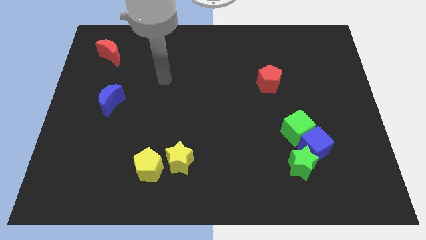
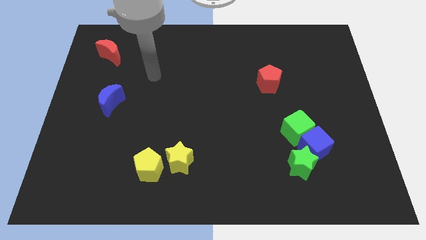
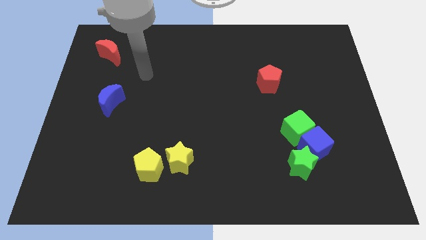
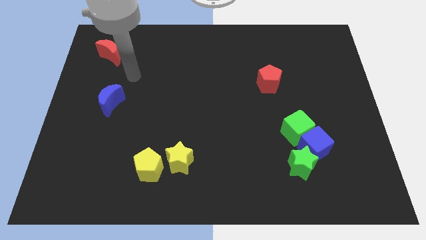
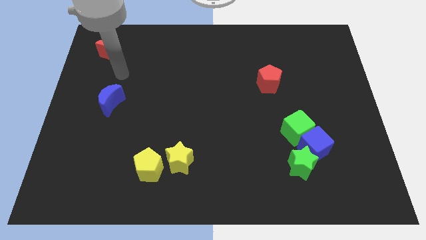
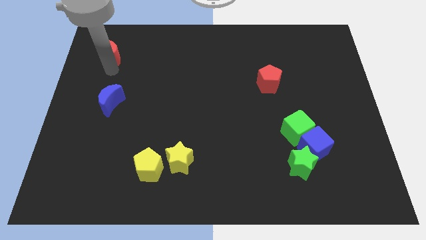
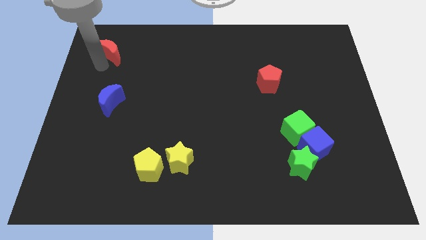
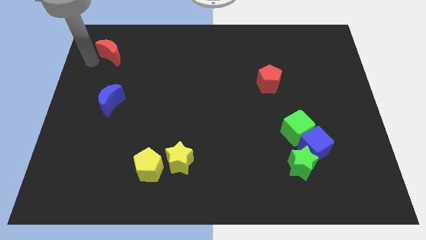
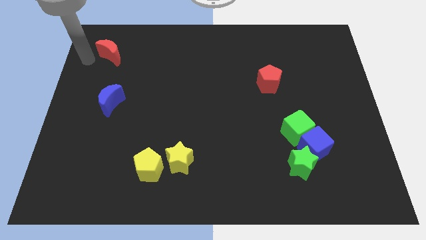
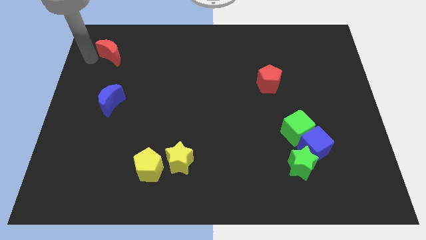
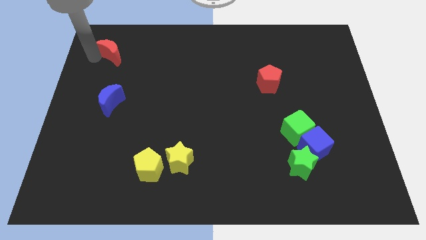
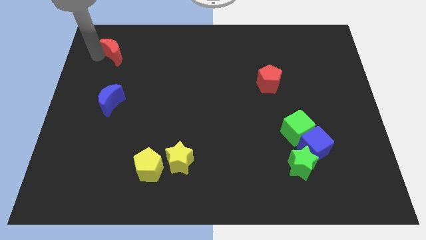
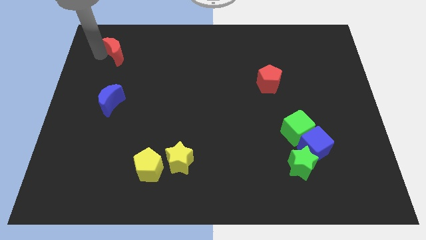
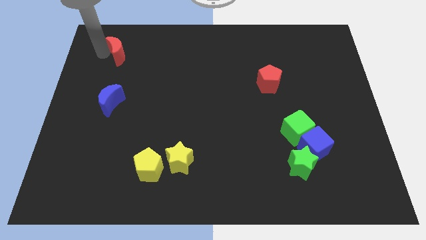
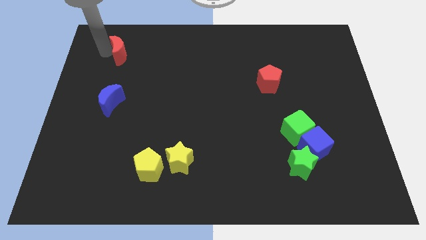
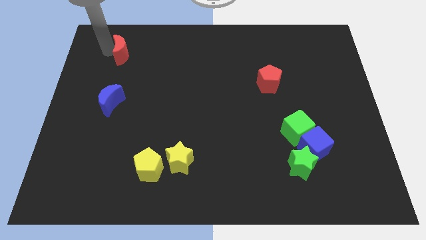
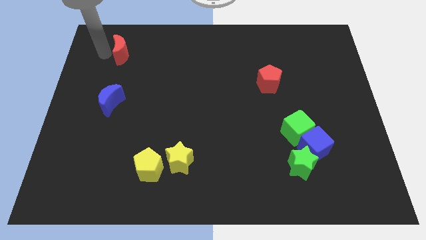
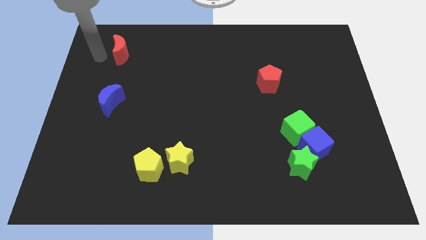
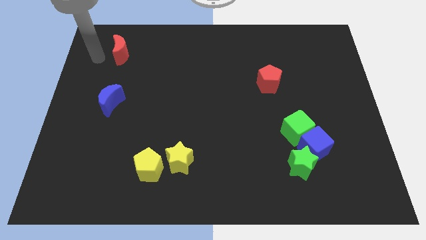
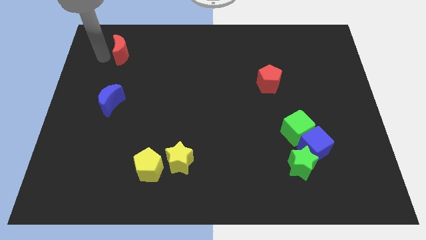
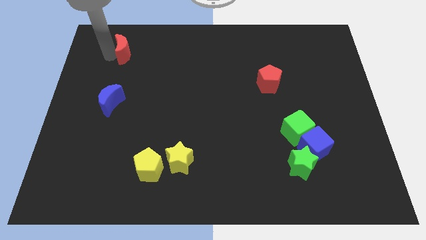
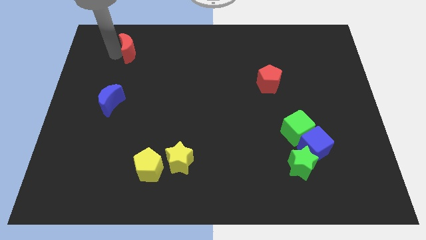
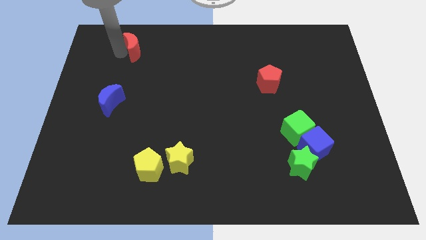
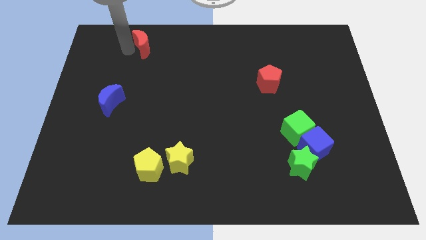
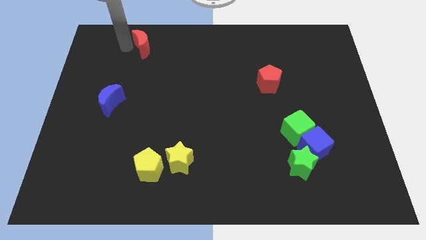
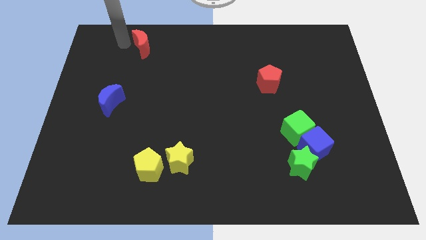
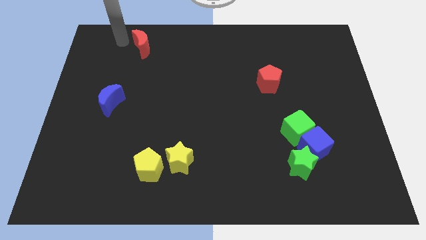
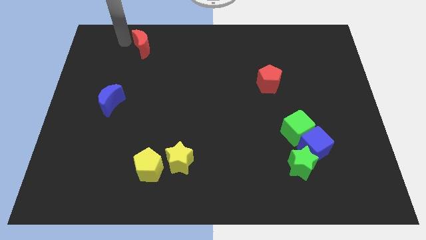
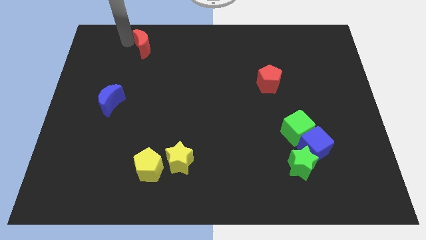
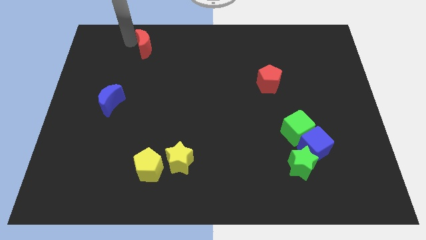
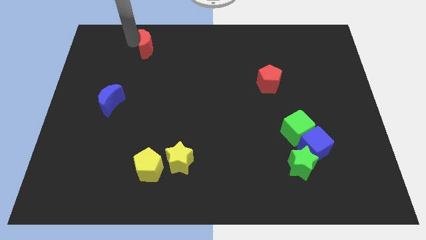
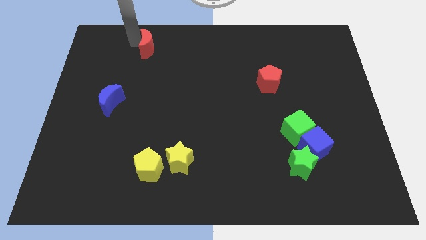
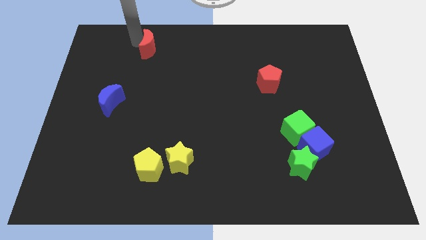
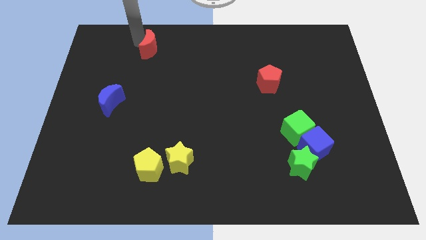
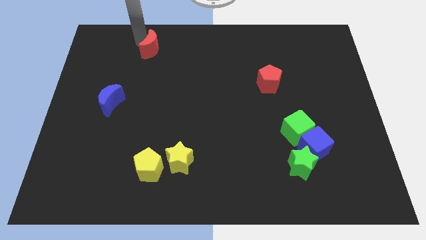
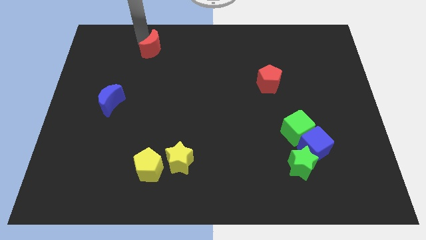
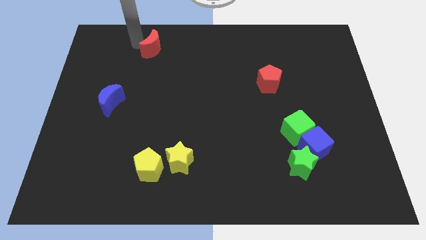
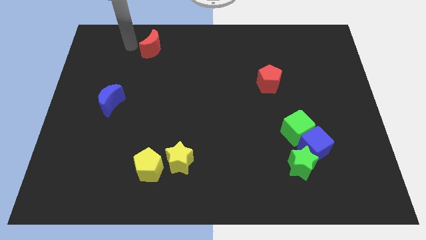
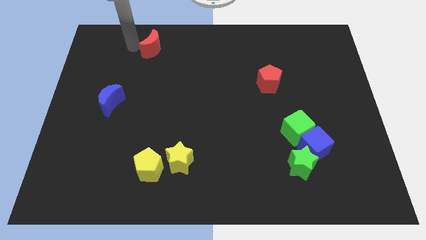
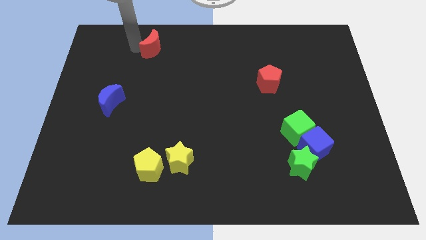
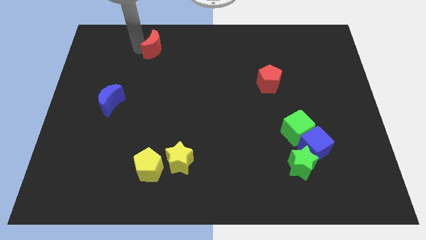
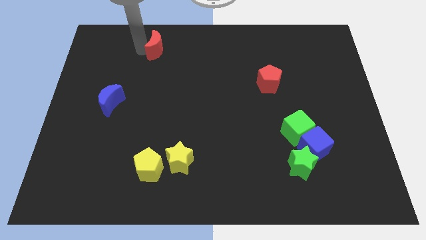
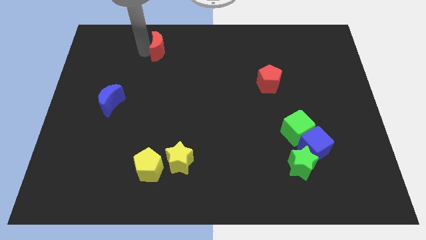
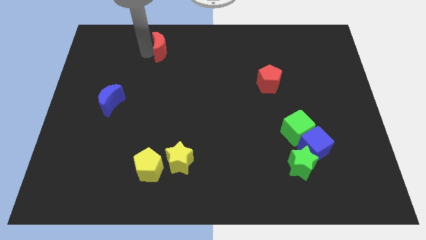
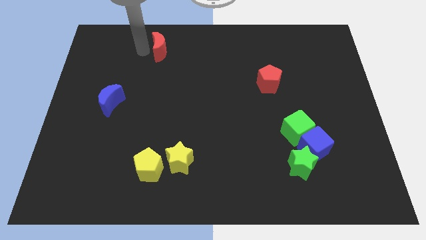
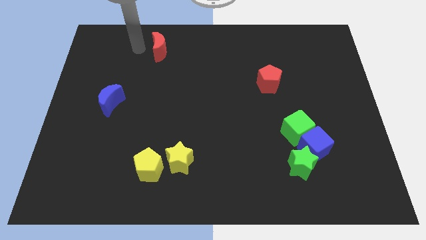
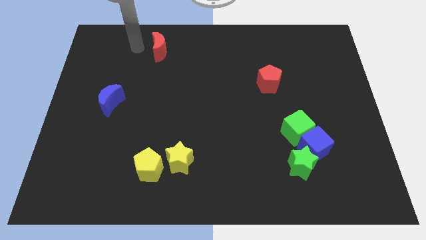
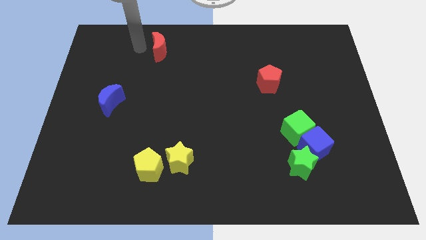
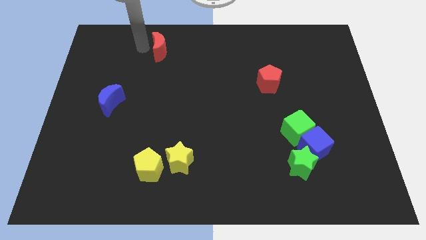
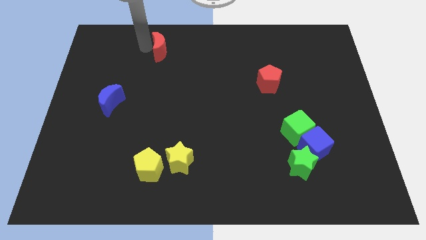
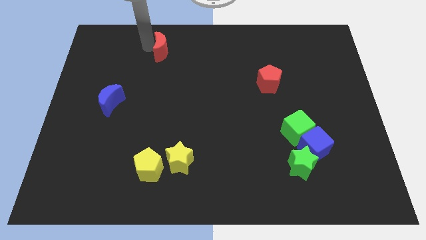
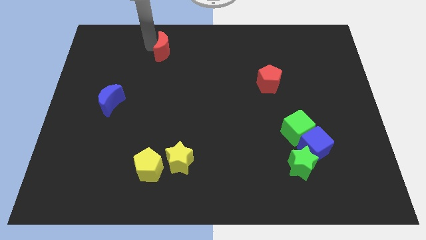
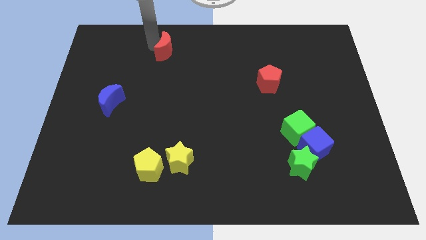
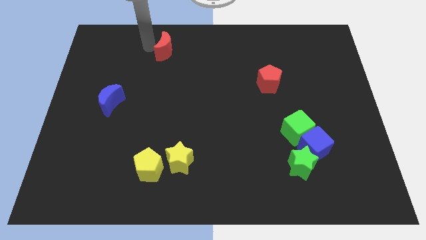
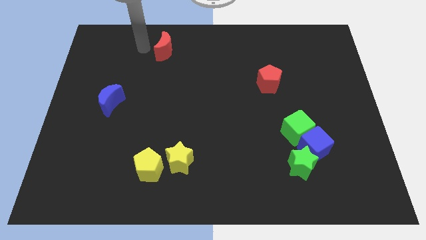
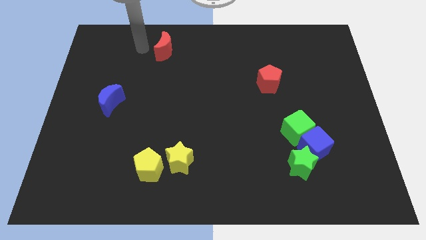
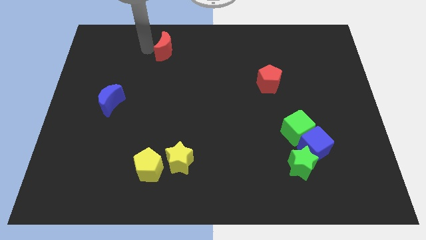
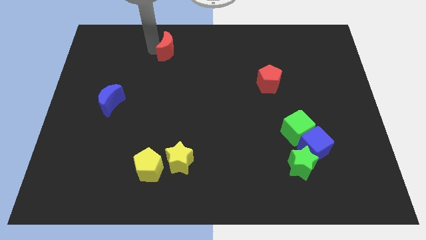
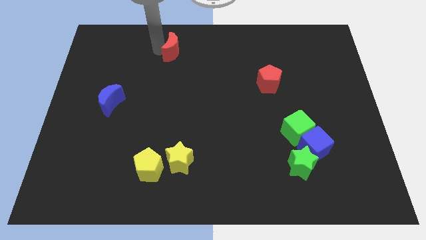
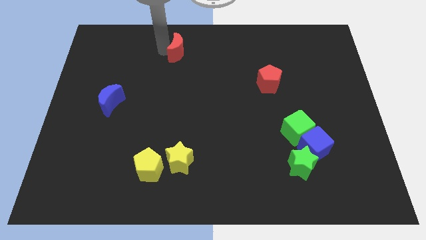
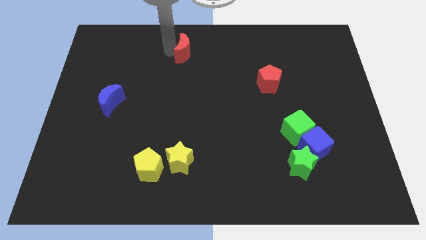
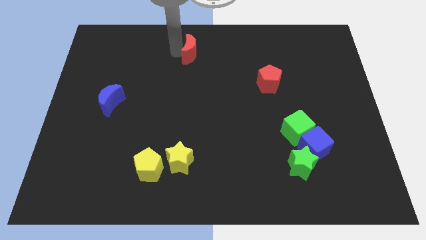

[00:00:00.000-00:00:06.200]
push the red moon right

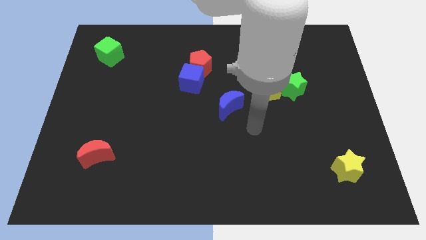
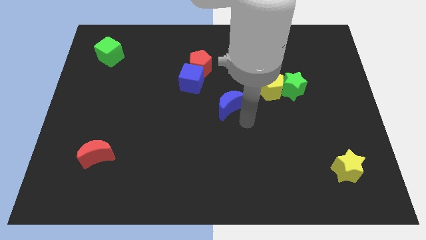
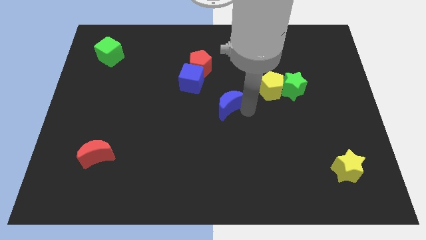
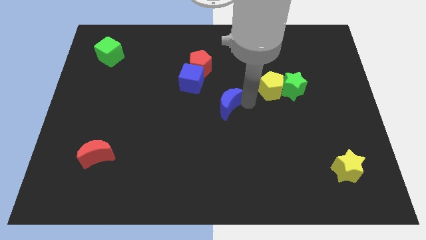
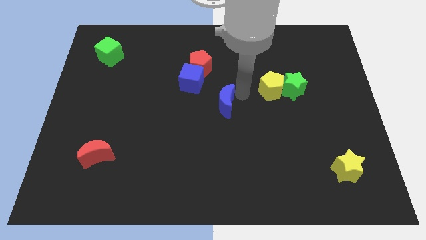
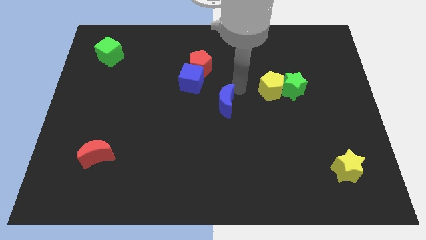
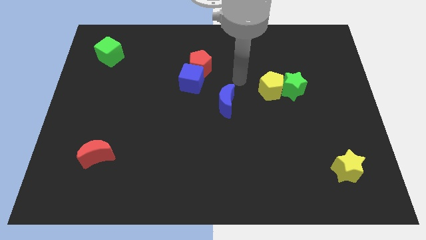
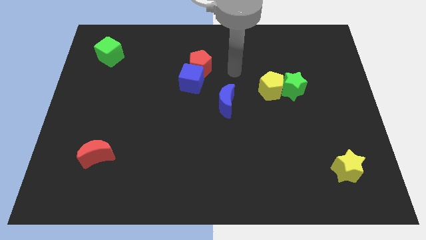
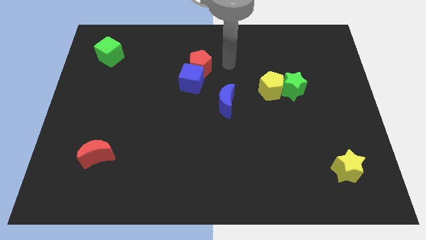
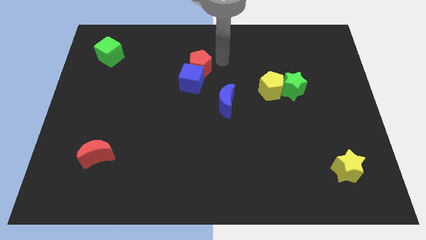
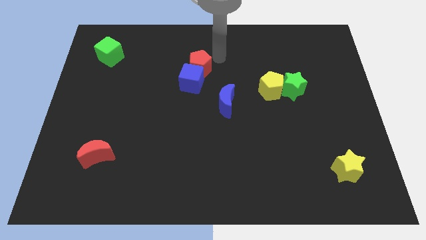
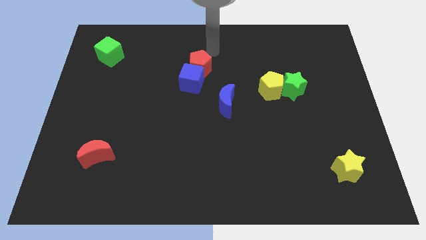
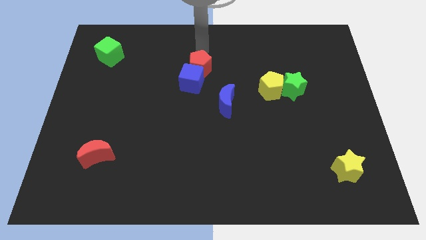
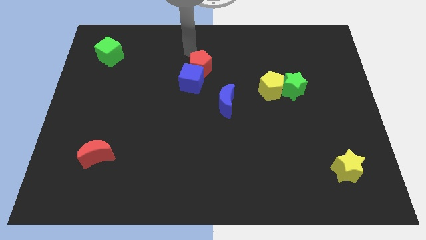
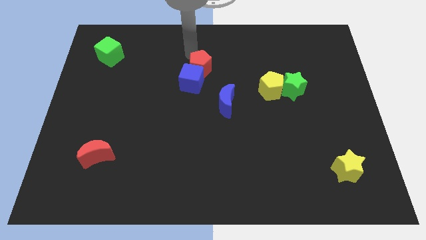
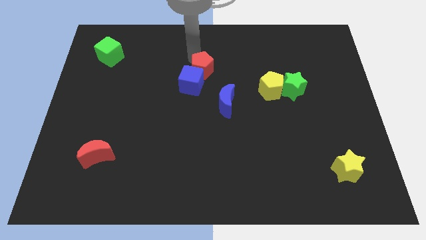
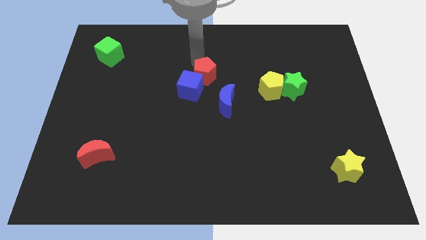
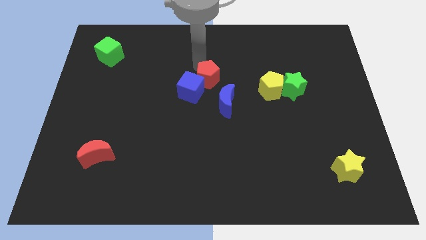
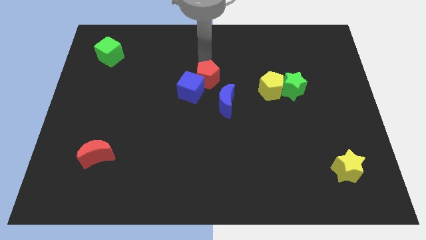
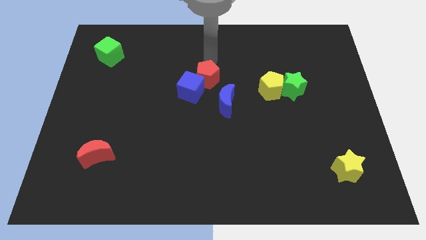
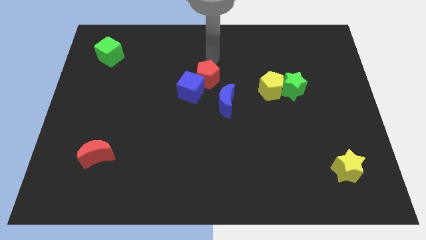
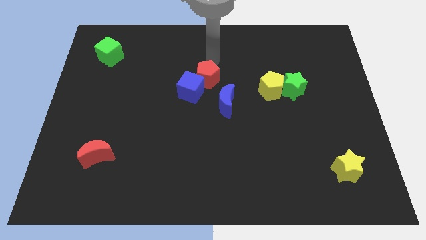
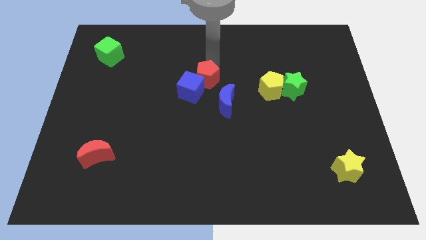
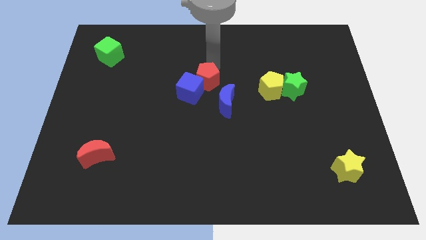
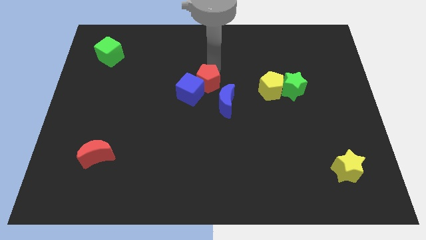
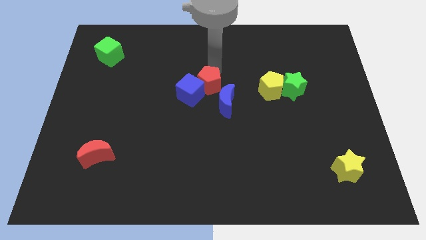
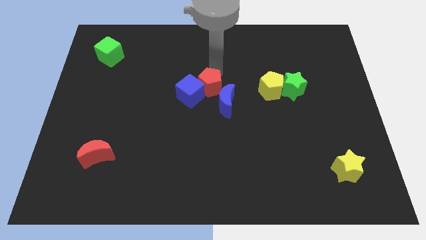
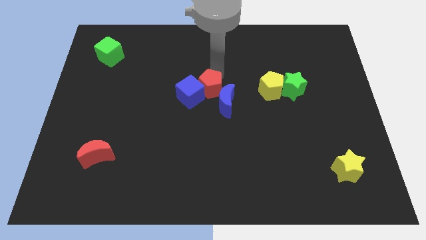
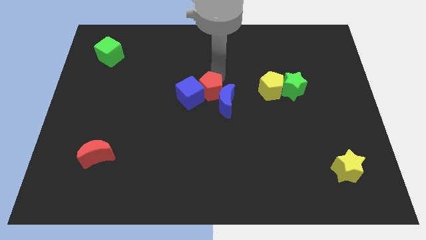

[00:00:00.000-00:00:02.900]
slightly push the red pentagon down
